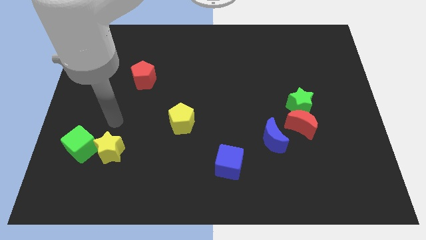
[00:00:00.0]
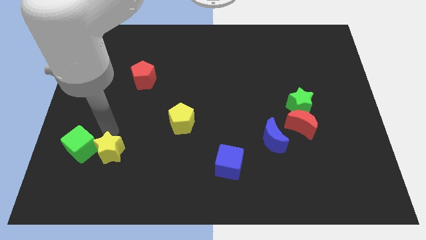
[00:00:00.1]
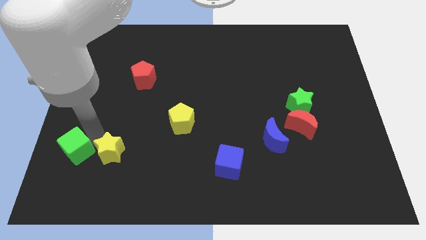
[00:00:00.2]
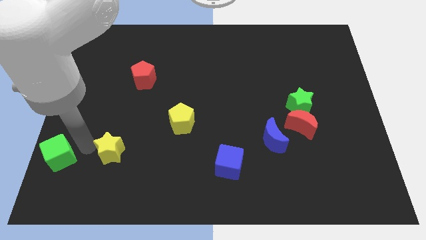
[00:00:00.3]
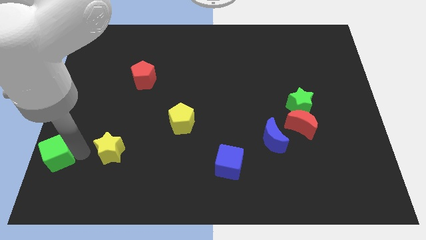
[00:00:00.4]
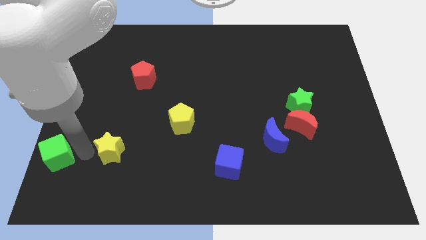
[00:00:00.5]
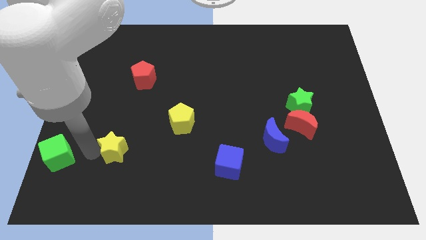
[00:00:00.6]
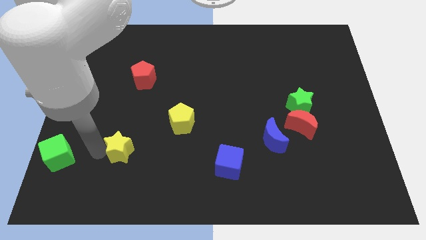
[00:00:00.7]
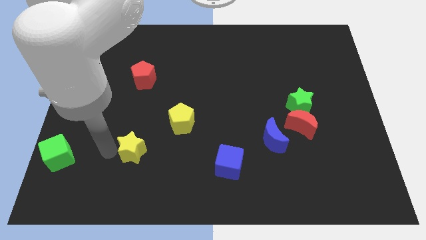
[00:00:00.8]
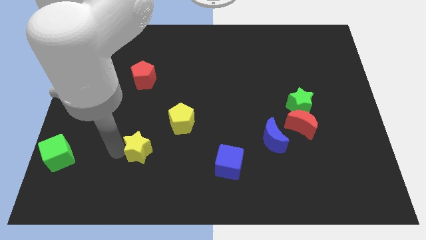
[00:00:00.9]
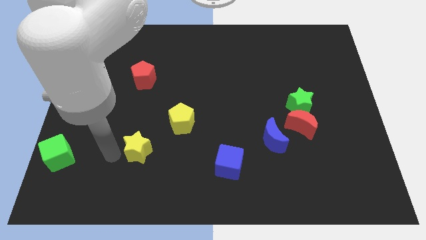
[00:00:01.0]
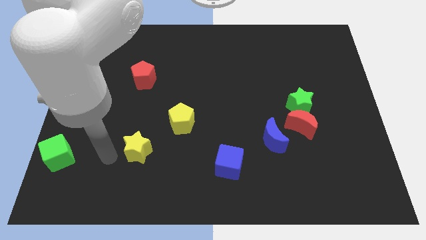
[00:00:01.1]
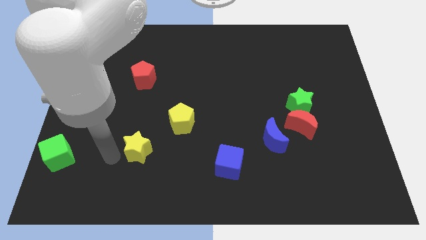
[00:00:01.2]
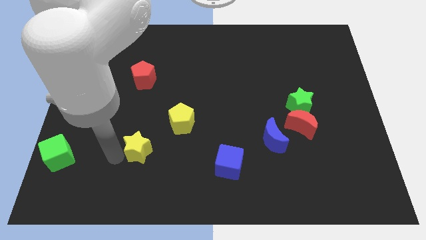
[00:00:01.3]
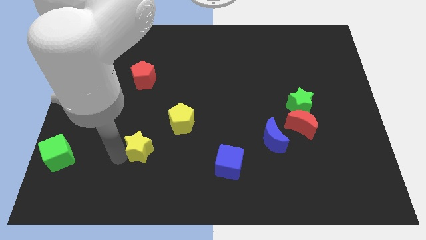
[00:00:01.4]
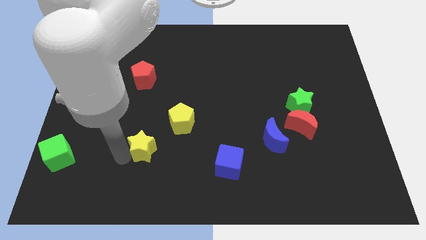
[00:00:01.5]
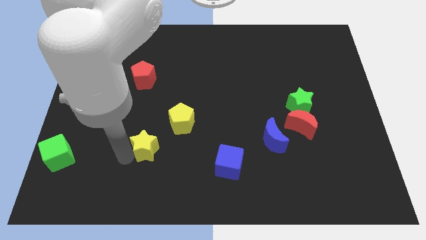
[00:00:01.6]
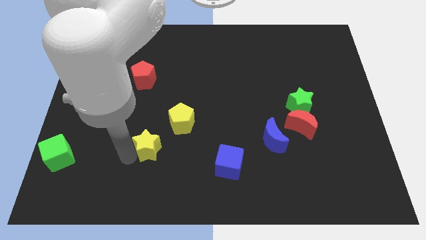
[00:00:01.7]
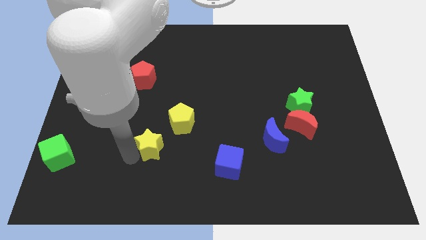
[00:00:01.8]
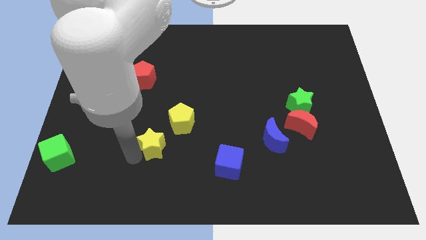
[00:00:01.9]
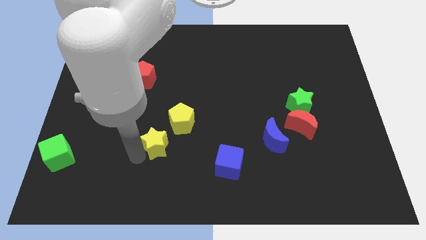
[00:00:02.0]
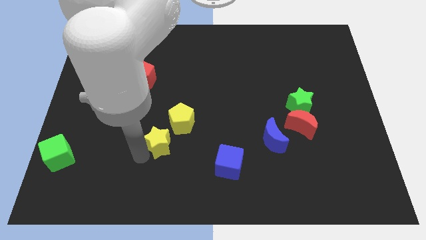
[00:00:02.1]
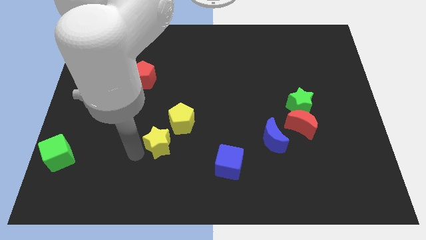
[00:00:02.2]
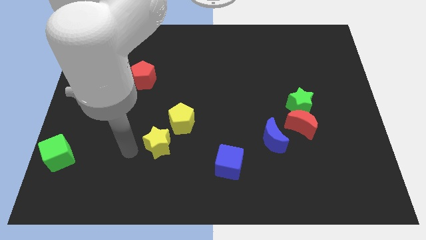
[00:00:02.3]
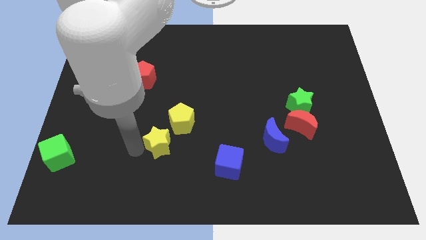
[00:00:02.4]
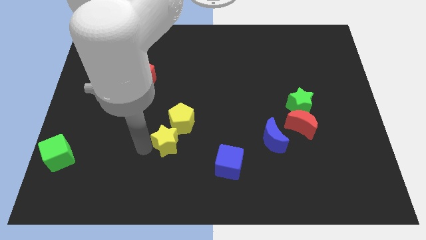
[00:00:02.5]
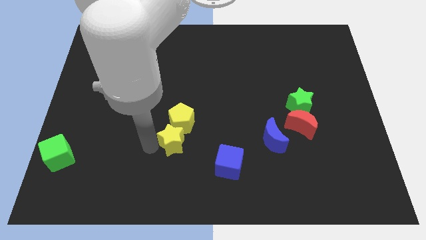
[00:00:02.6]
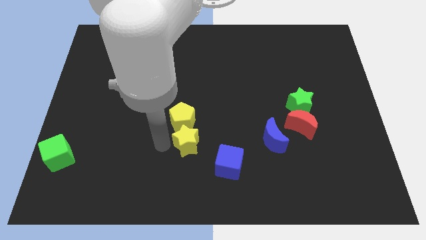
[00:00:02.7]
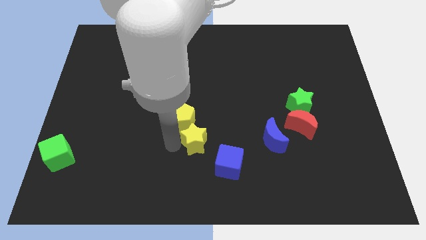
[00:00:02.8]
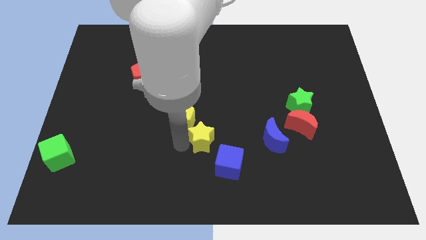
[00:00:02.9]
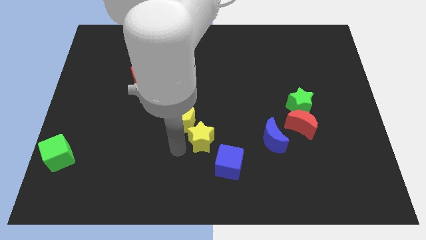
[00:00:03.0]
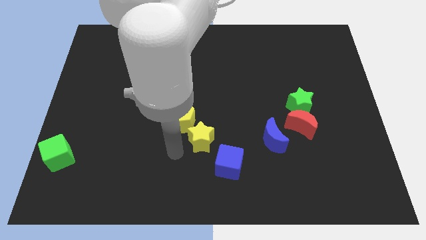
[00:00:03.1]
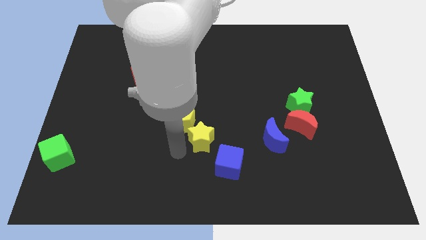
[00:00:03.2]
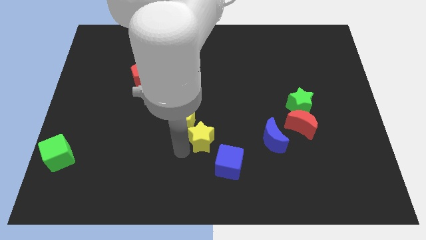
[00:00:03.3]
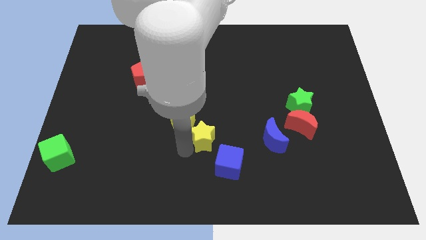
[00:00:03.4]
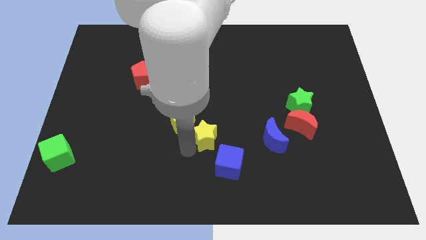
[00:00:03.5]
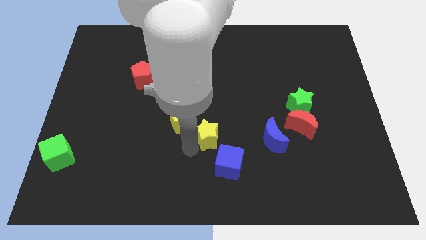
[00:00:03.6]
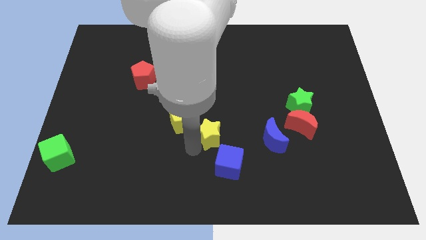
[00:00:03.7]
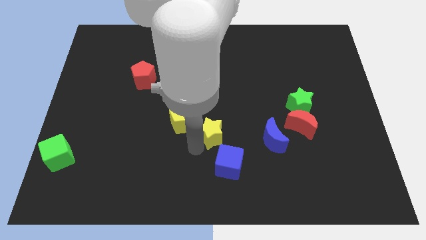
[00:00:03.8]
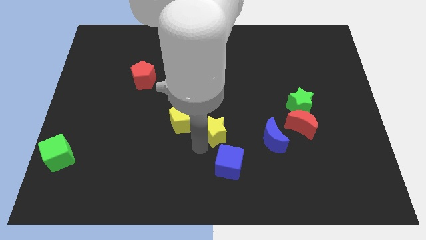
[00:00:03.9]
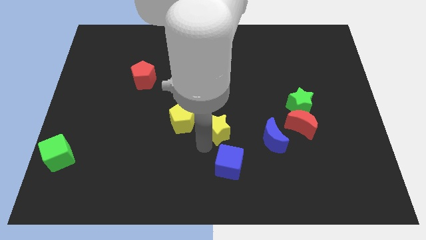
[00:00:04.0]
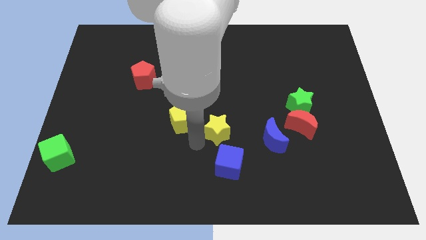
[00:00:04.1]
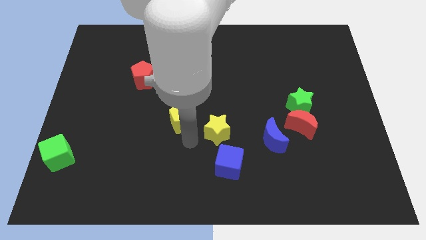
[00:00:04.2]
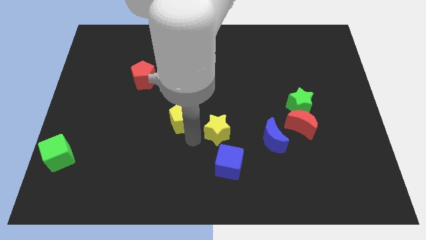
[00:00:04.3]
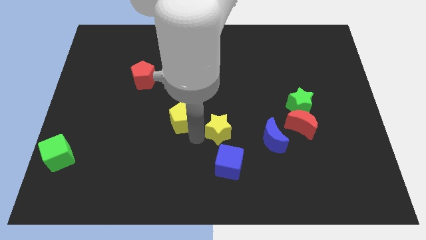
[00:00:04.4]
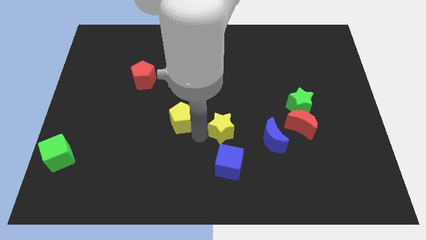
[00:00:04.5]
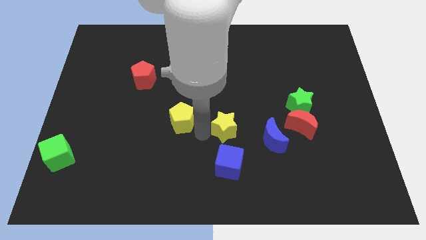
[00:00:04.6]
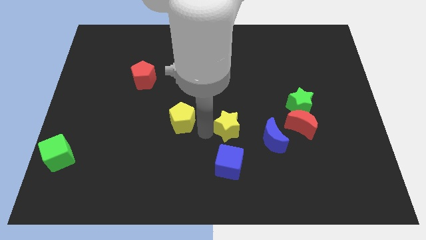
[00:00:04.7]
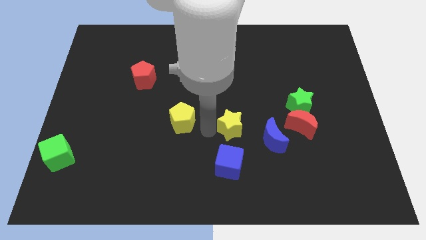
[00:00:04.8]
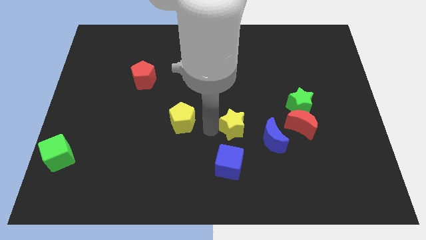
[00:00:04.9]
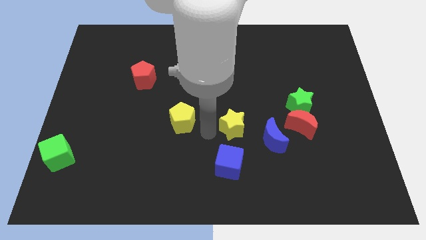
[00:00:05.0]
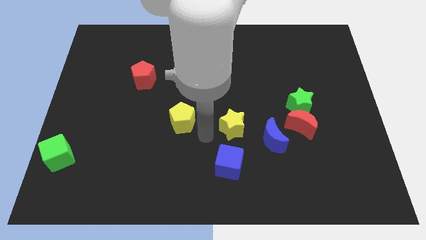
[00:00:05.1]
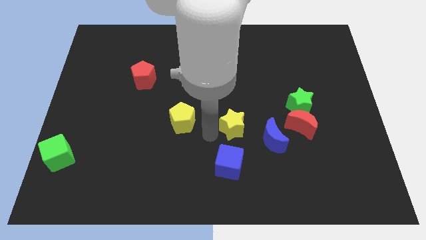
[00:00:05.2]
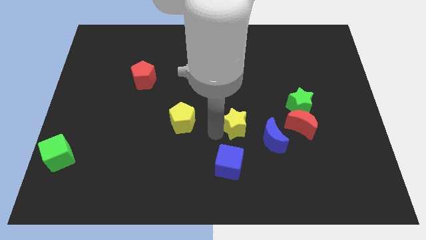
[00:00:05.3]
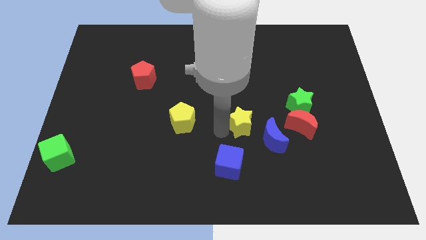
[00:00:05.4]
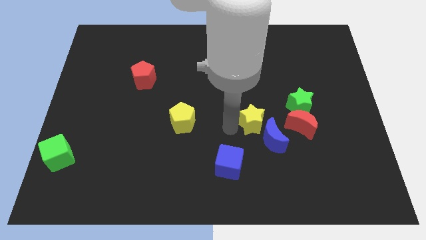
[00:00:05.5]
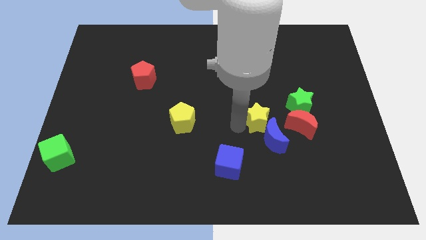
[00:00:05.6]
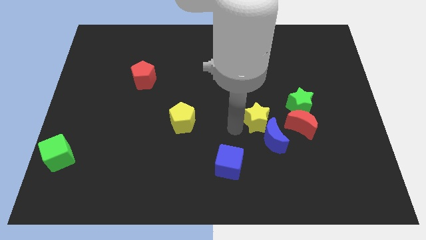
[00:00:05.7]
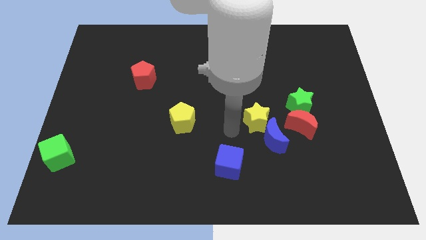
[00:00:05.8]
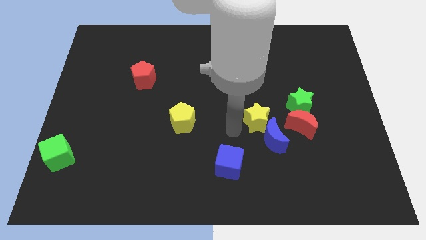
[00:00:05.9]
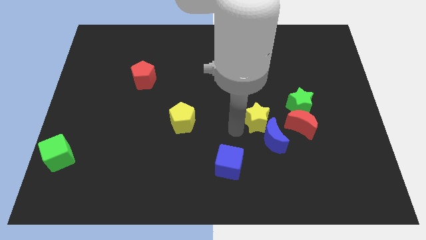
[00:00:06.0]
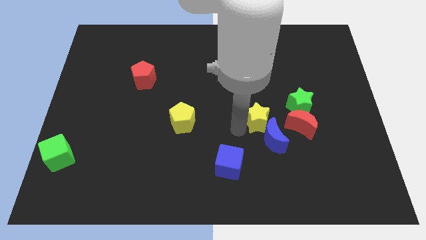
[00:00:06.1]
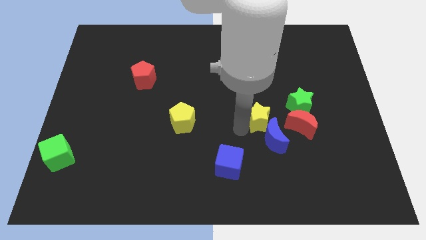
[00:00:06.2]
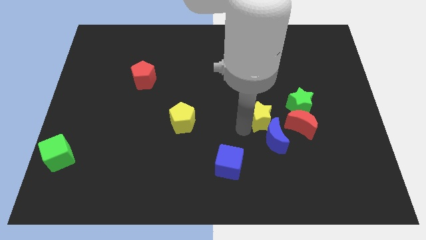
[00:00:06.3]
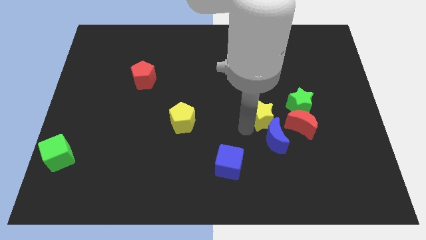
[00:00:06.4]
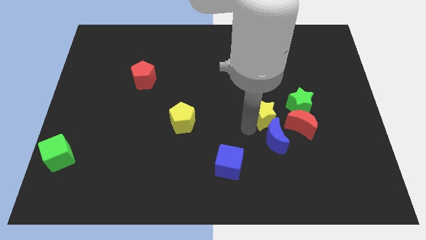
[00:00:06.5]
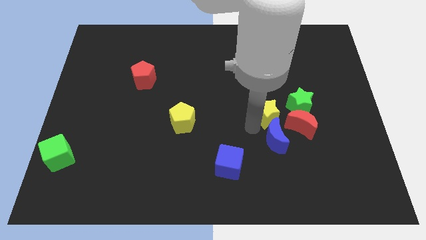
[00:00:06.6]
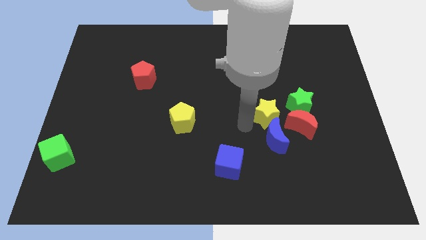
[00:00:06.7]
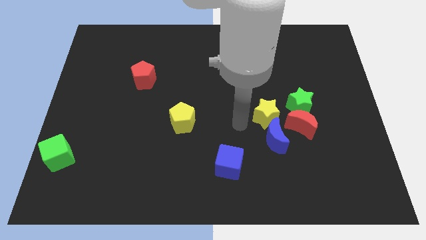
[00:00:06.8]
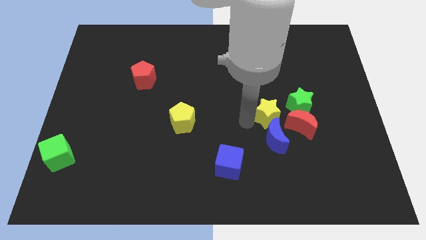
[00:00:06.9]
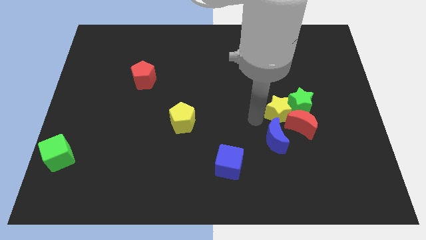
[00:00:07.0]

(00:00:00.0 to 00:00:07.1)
slide the yellow star close to the green star

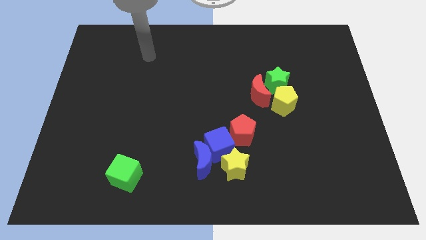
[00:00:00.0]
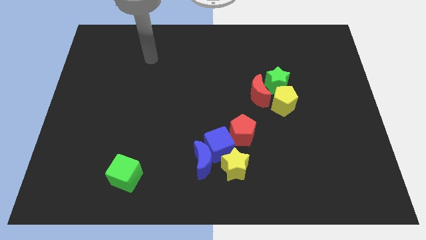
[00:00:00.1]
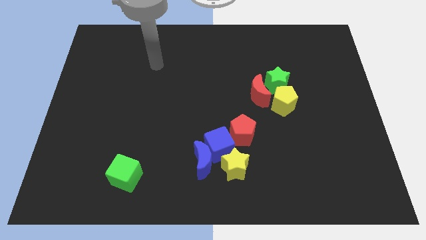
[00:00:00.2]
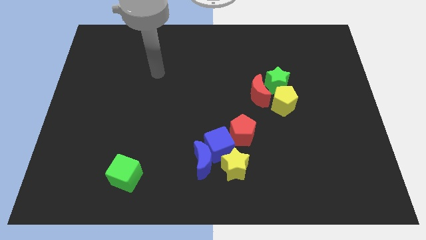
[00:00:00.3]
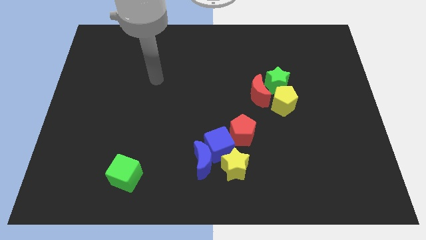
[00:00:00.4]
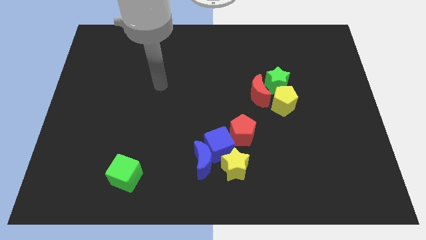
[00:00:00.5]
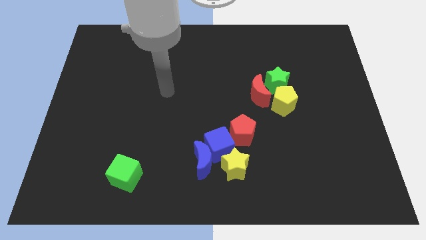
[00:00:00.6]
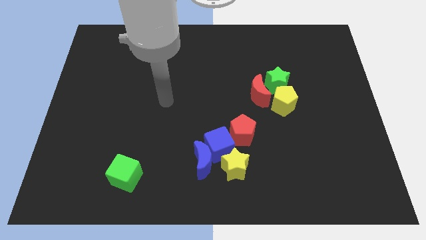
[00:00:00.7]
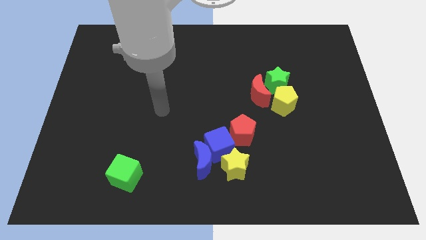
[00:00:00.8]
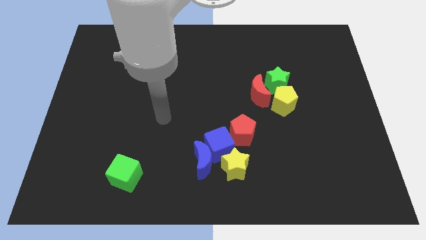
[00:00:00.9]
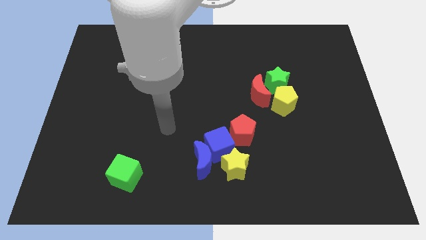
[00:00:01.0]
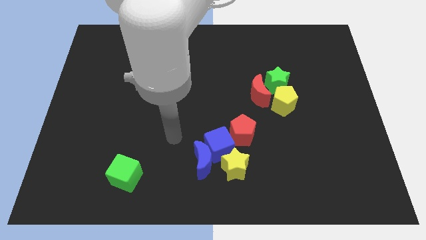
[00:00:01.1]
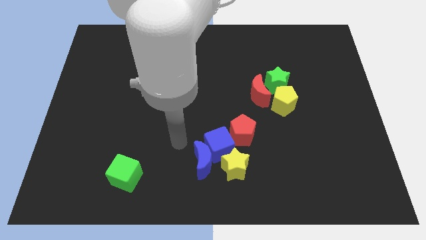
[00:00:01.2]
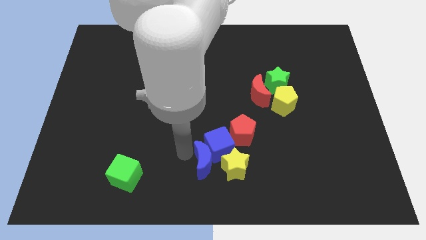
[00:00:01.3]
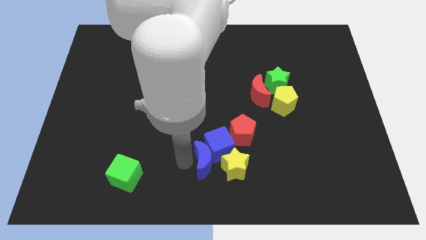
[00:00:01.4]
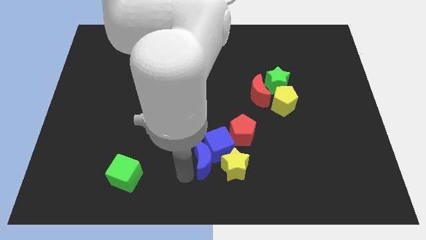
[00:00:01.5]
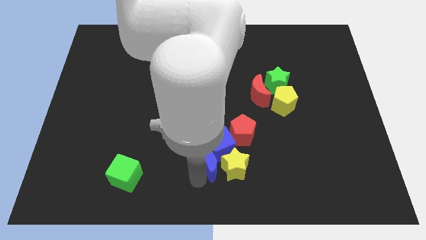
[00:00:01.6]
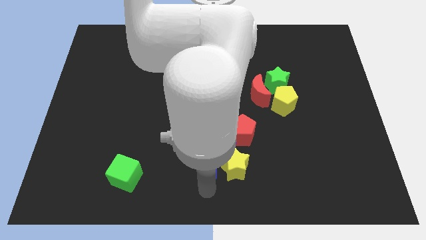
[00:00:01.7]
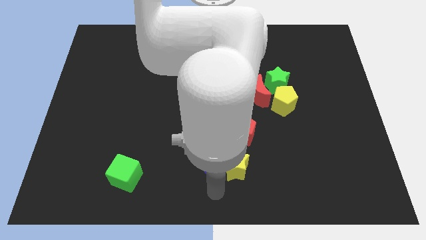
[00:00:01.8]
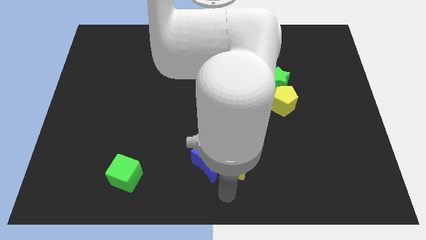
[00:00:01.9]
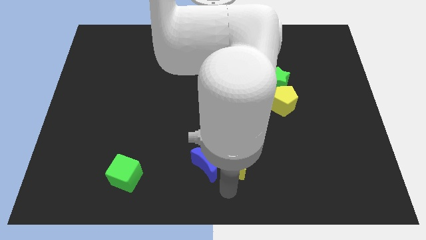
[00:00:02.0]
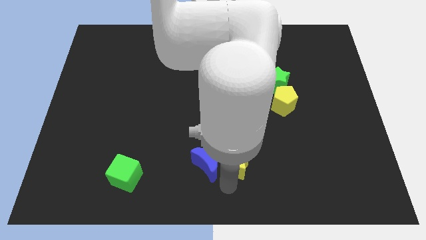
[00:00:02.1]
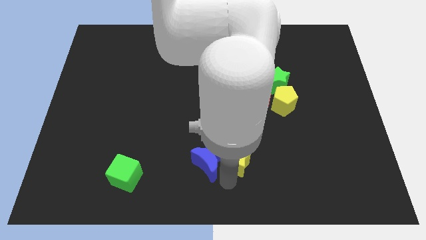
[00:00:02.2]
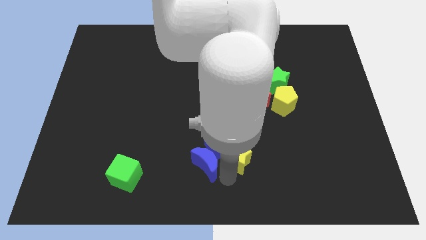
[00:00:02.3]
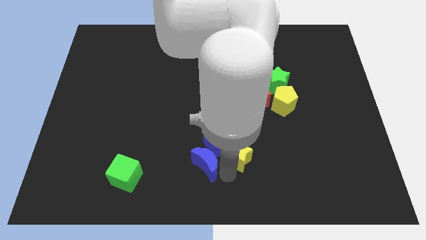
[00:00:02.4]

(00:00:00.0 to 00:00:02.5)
put the yellow star towards the red pentagon
